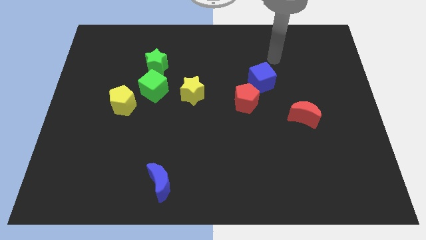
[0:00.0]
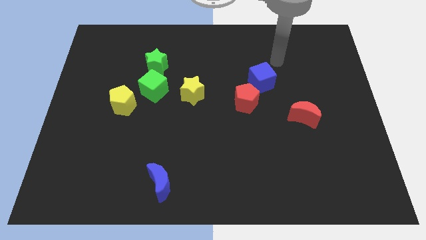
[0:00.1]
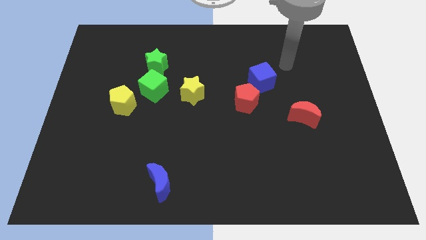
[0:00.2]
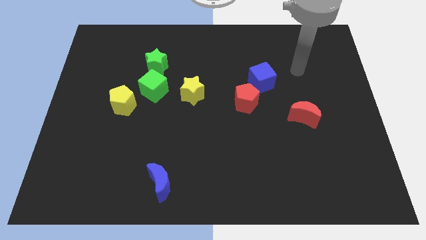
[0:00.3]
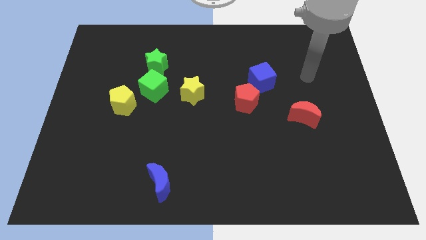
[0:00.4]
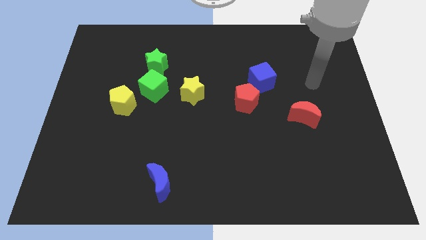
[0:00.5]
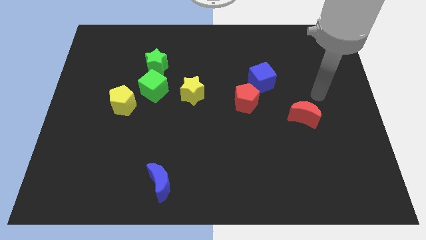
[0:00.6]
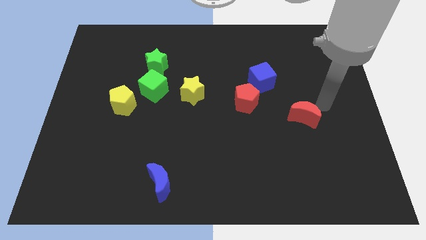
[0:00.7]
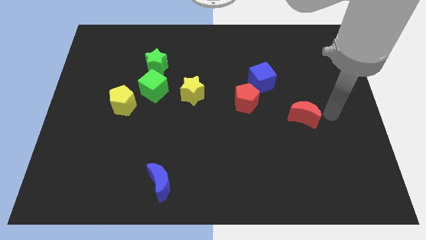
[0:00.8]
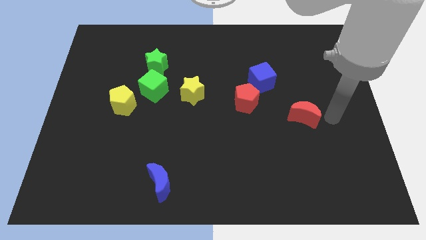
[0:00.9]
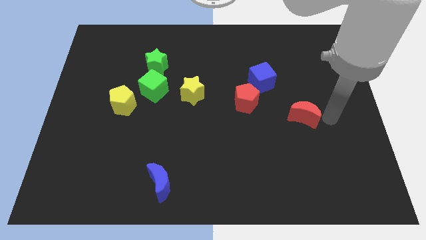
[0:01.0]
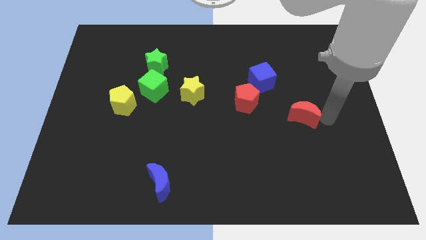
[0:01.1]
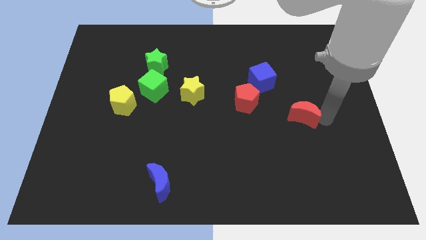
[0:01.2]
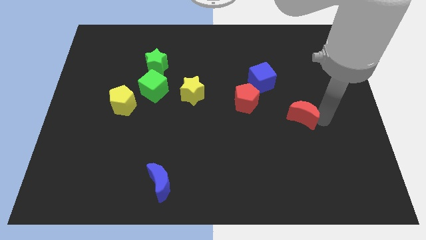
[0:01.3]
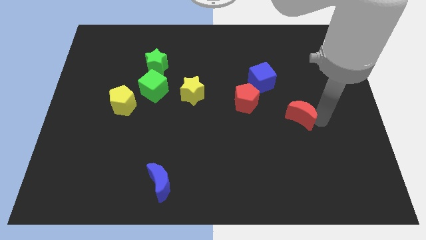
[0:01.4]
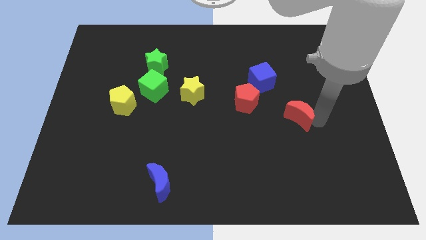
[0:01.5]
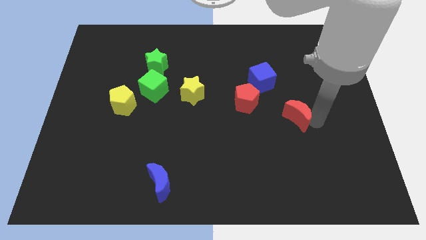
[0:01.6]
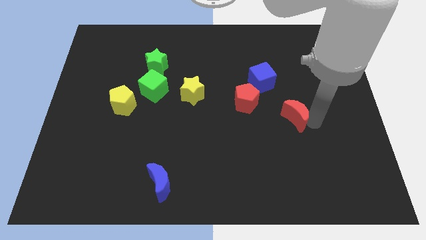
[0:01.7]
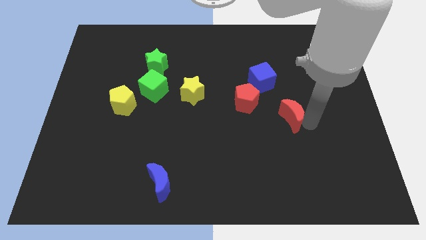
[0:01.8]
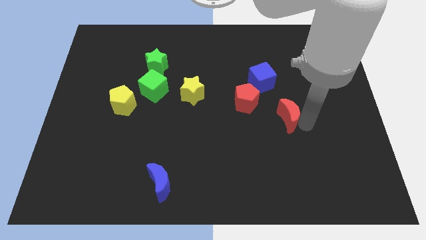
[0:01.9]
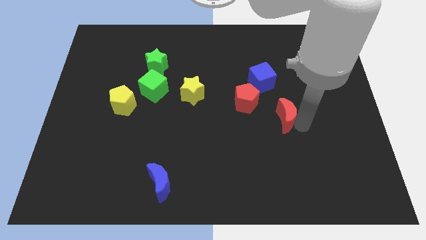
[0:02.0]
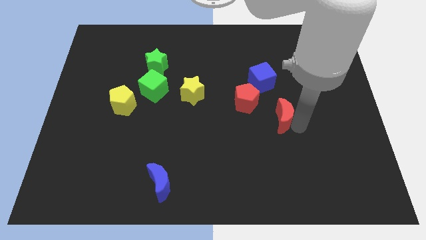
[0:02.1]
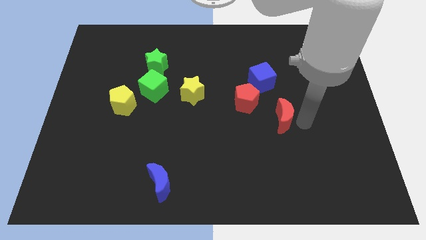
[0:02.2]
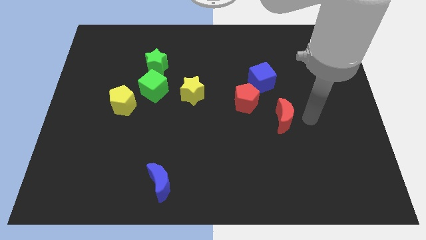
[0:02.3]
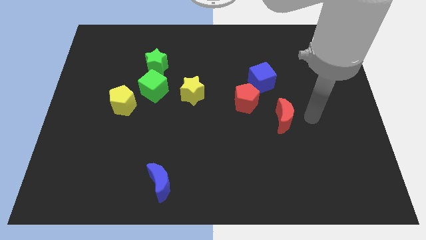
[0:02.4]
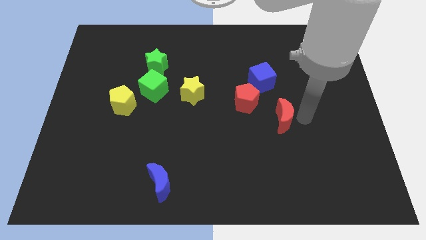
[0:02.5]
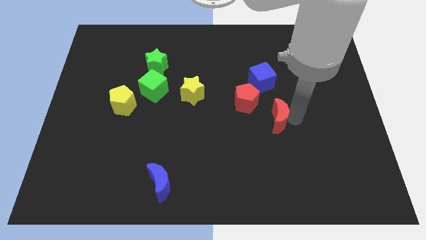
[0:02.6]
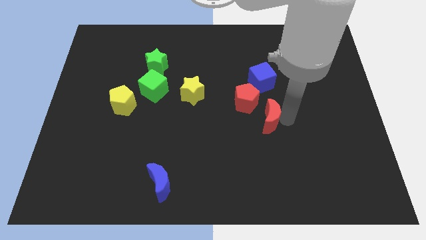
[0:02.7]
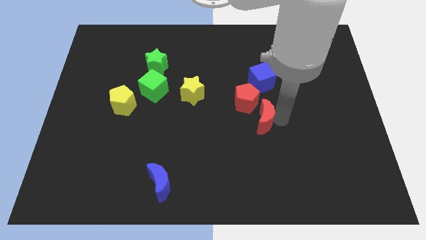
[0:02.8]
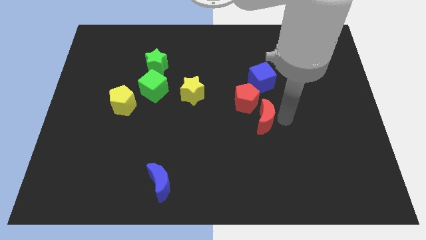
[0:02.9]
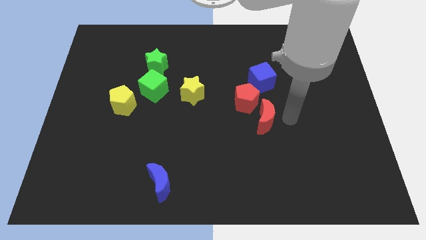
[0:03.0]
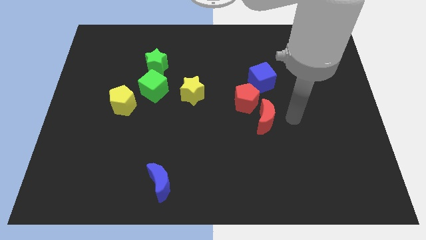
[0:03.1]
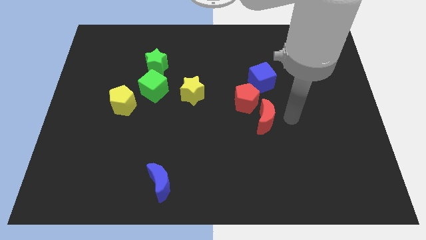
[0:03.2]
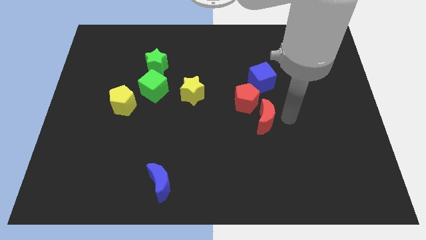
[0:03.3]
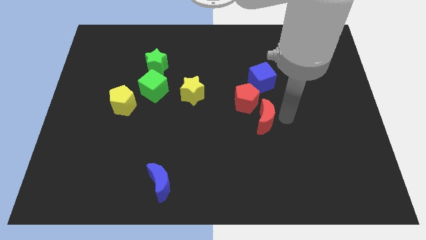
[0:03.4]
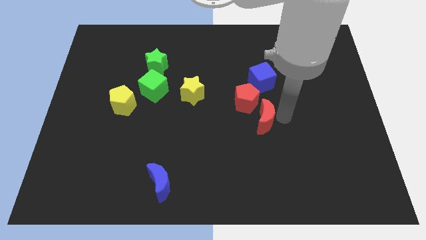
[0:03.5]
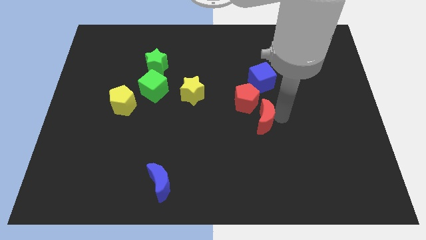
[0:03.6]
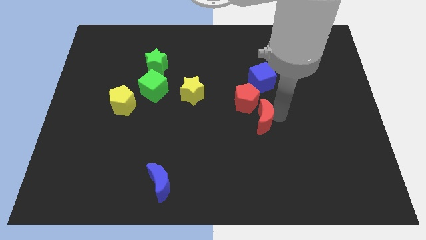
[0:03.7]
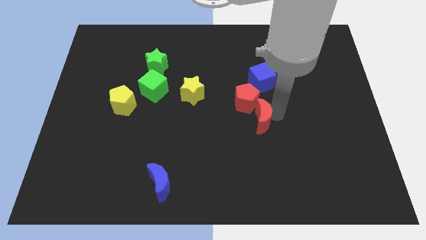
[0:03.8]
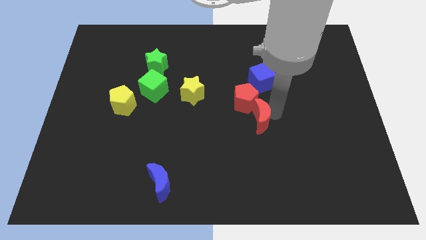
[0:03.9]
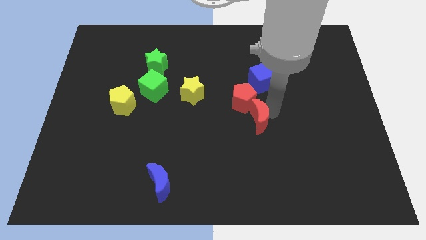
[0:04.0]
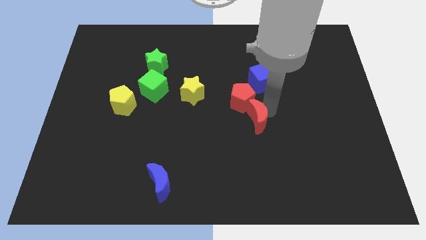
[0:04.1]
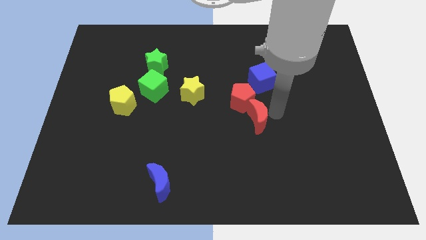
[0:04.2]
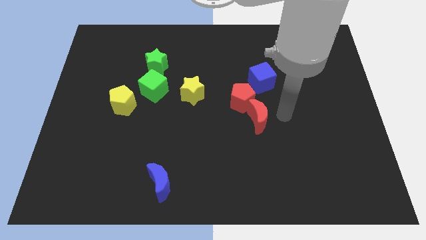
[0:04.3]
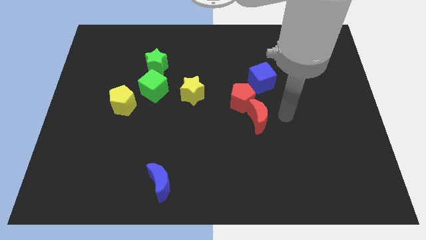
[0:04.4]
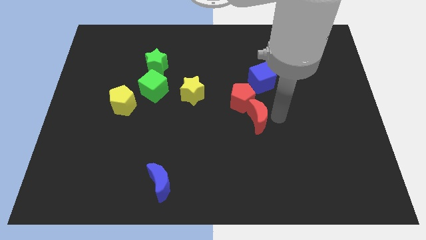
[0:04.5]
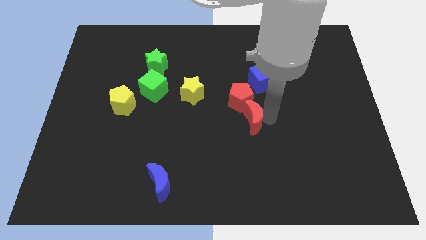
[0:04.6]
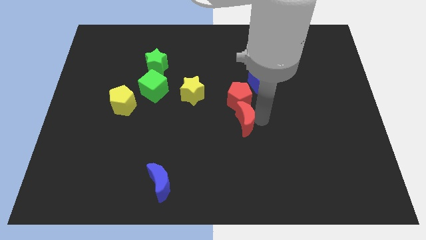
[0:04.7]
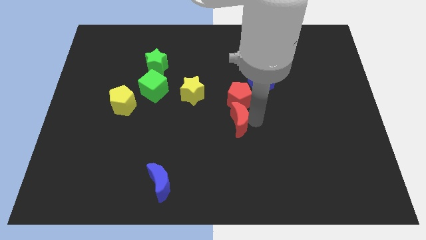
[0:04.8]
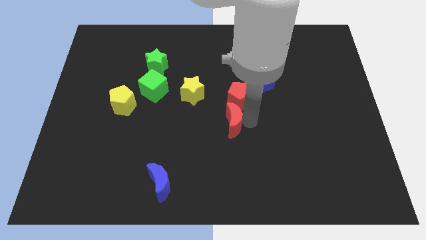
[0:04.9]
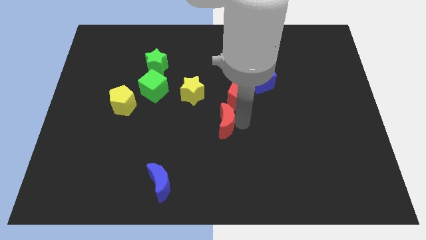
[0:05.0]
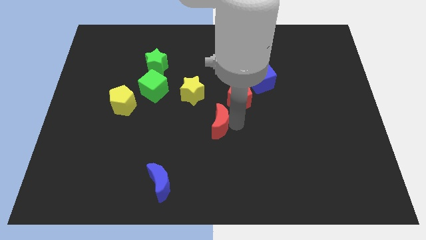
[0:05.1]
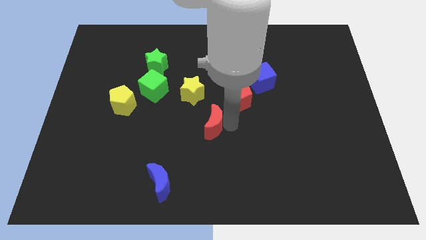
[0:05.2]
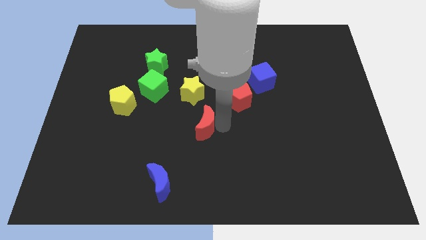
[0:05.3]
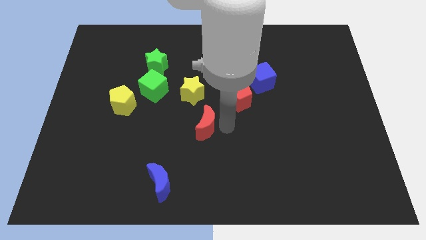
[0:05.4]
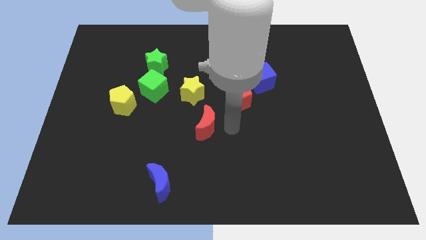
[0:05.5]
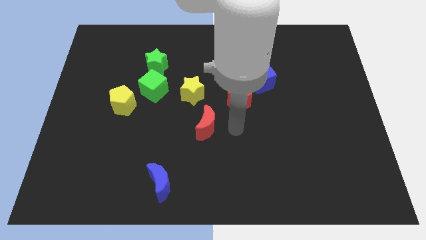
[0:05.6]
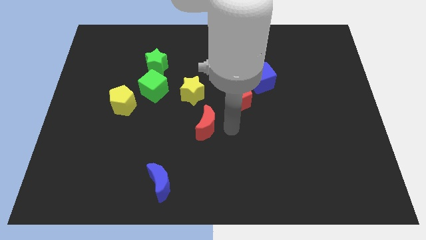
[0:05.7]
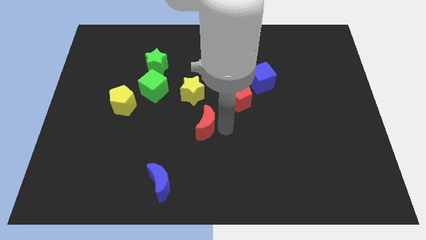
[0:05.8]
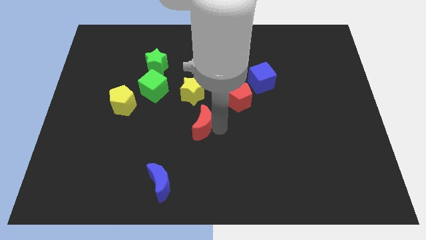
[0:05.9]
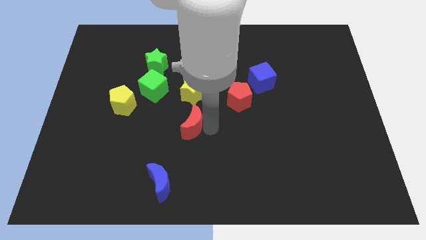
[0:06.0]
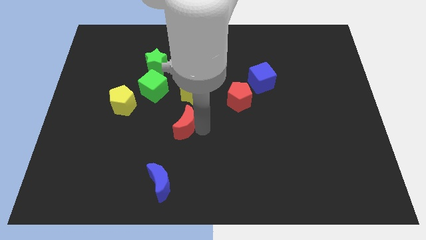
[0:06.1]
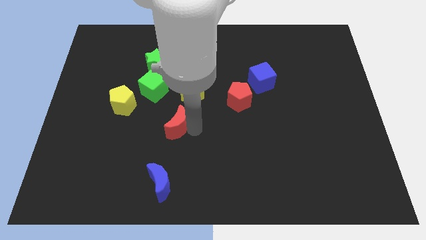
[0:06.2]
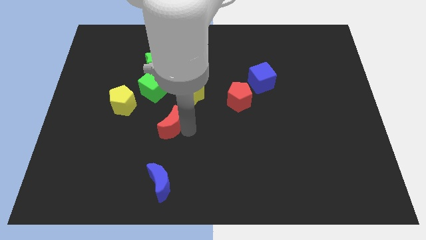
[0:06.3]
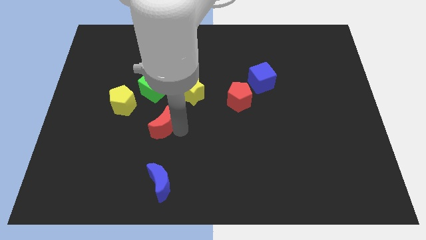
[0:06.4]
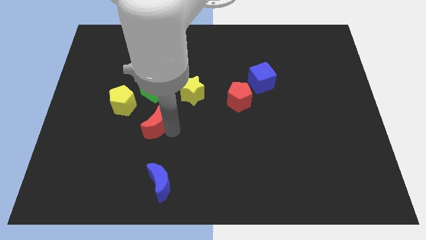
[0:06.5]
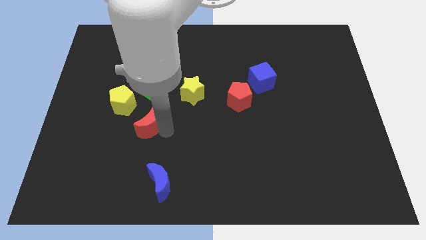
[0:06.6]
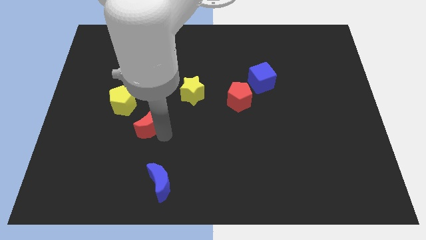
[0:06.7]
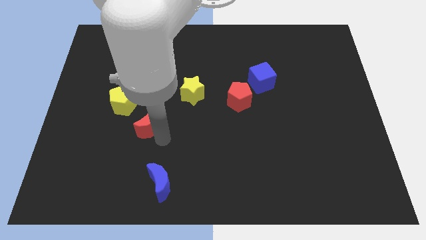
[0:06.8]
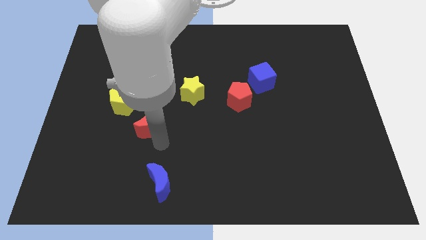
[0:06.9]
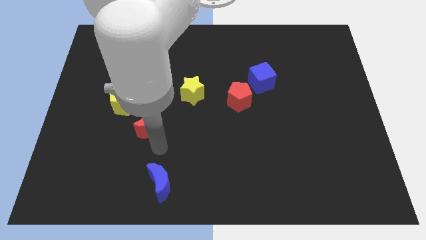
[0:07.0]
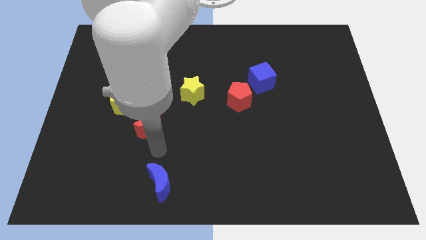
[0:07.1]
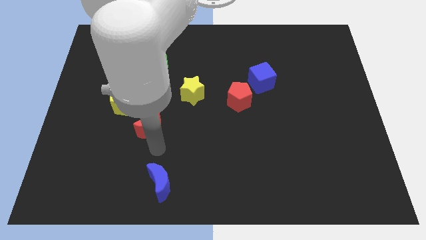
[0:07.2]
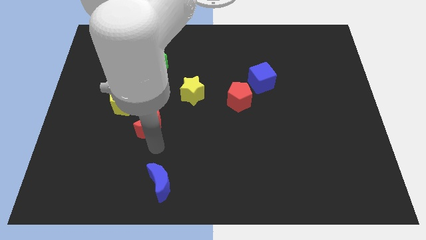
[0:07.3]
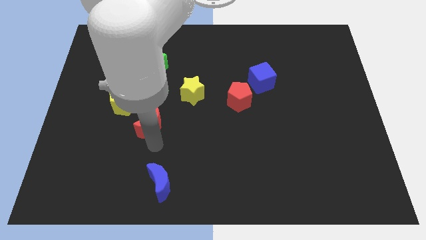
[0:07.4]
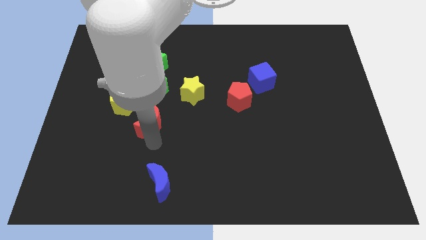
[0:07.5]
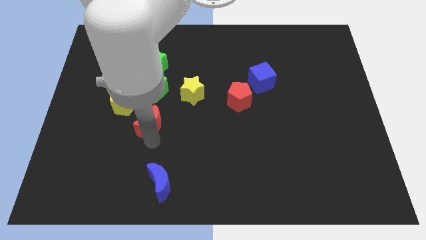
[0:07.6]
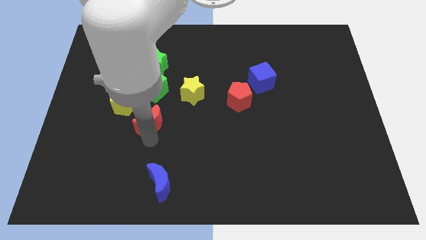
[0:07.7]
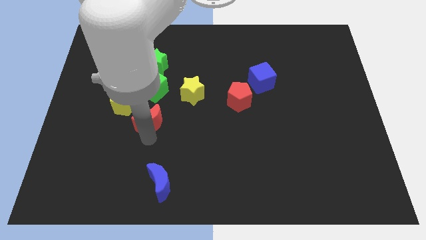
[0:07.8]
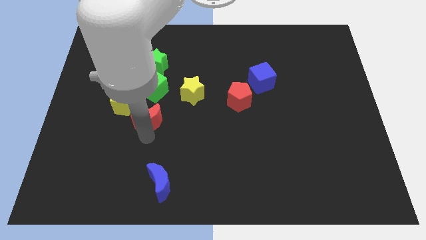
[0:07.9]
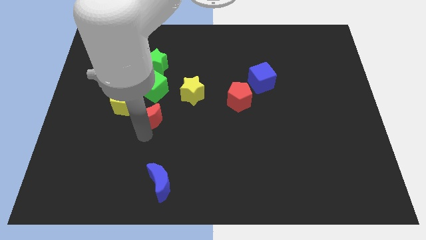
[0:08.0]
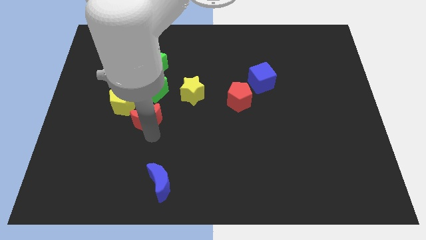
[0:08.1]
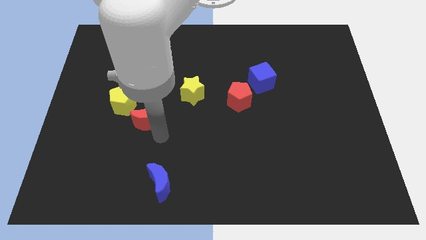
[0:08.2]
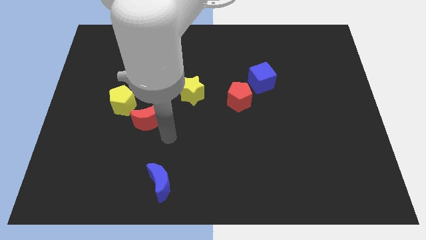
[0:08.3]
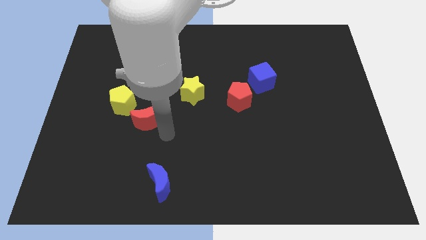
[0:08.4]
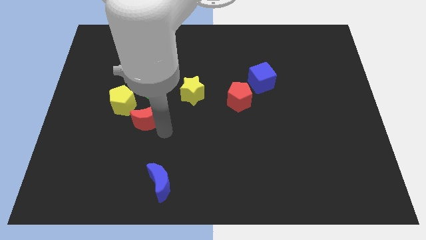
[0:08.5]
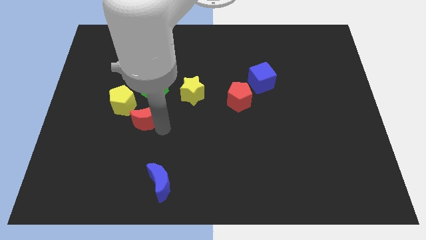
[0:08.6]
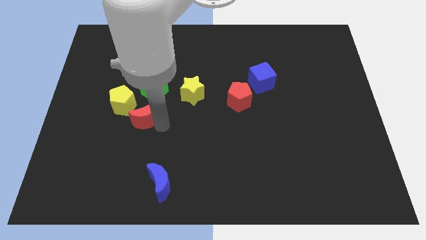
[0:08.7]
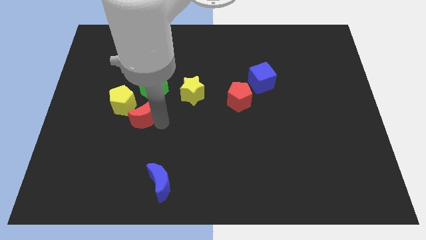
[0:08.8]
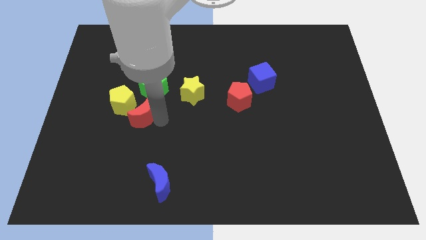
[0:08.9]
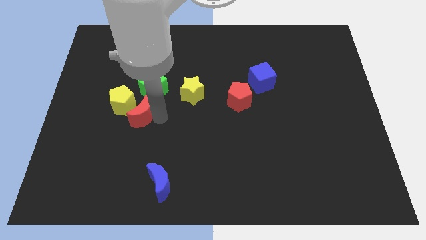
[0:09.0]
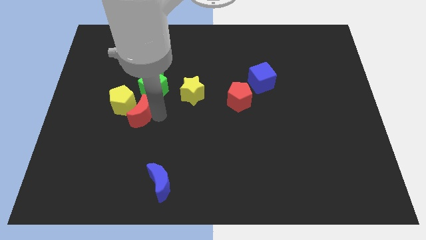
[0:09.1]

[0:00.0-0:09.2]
push the red moon towards the yellow pentagon
